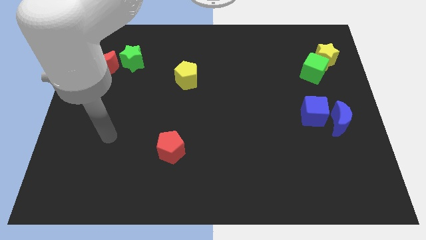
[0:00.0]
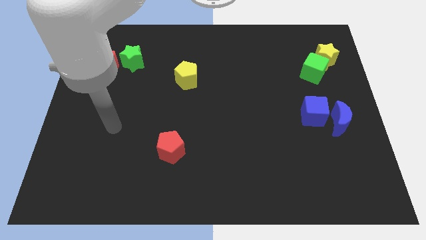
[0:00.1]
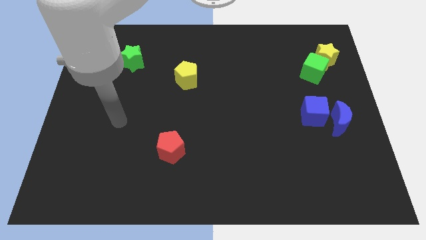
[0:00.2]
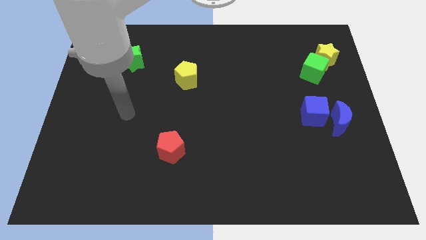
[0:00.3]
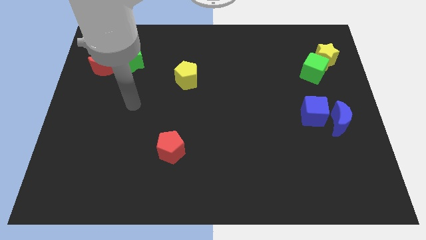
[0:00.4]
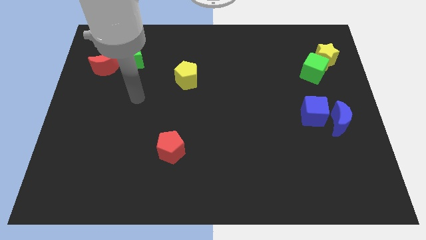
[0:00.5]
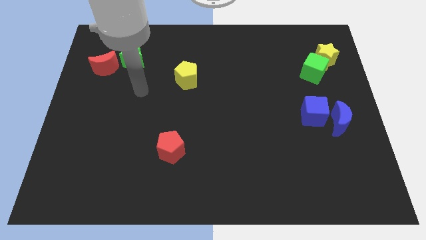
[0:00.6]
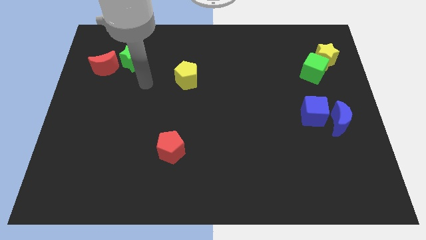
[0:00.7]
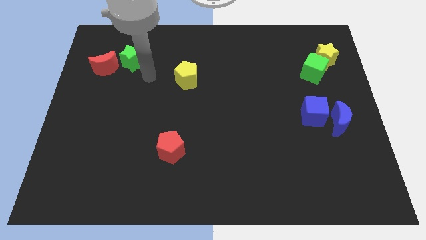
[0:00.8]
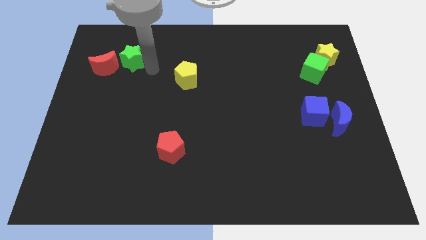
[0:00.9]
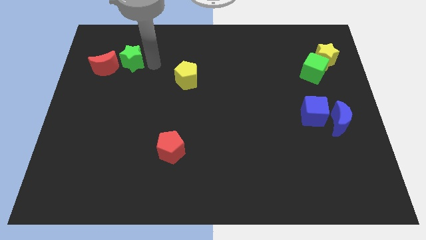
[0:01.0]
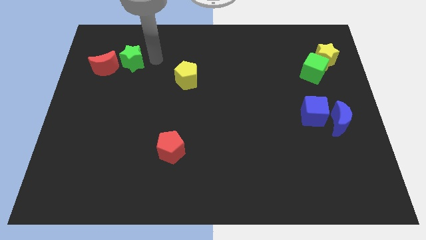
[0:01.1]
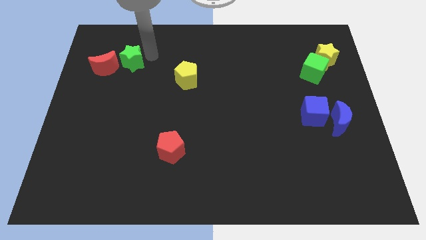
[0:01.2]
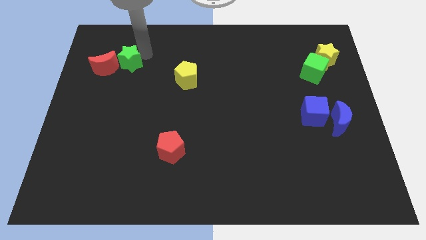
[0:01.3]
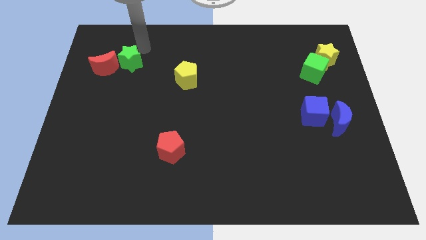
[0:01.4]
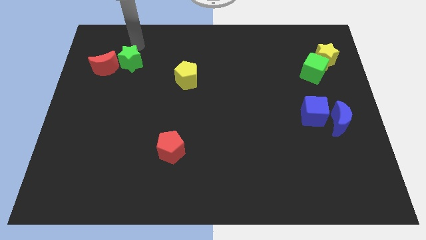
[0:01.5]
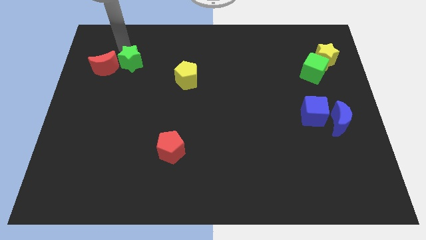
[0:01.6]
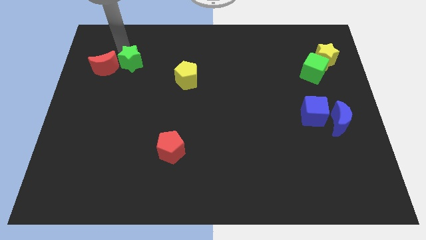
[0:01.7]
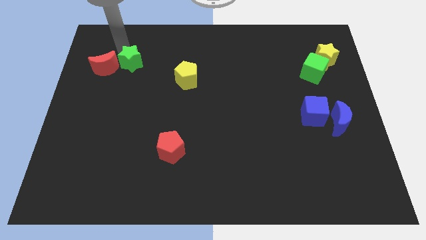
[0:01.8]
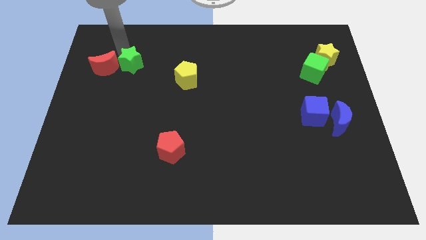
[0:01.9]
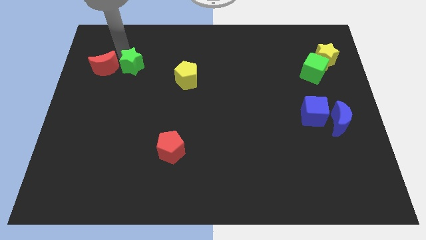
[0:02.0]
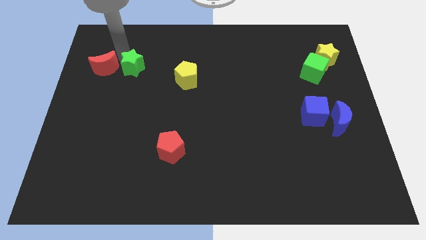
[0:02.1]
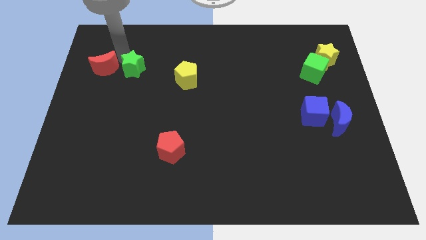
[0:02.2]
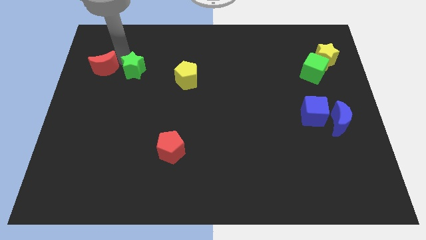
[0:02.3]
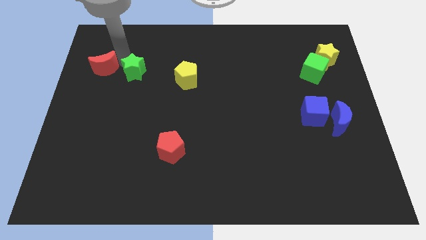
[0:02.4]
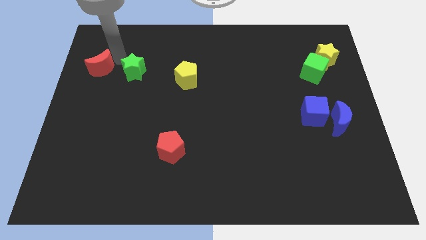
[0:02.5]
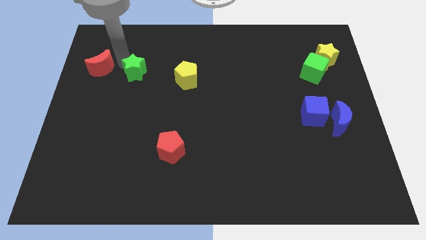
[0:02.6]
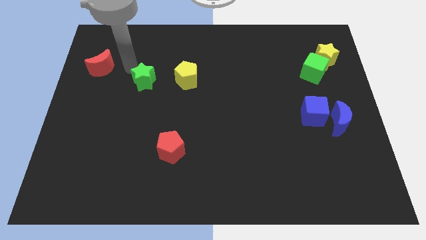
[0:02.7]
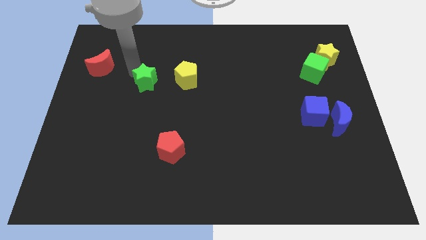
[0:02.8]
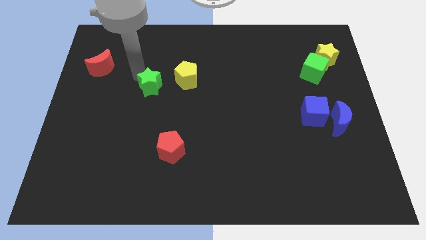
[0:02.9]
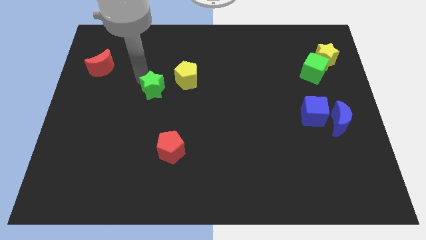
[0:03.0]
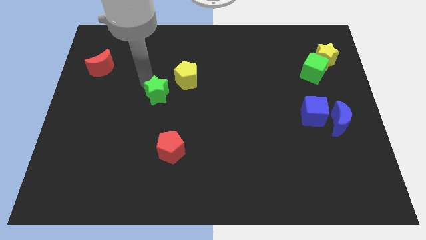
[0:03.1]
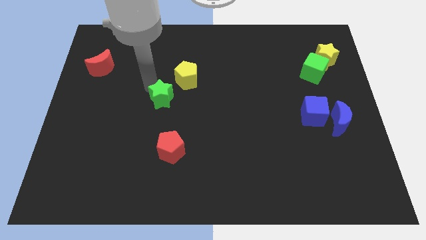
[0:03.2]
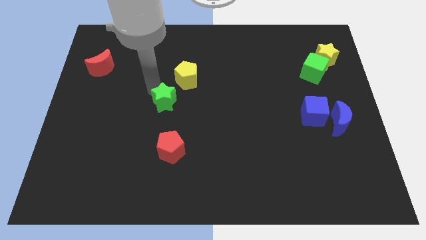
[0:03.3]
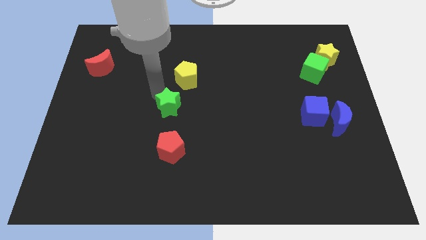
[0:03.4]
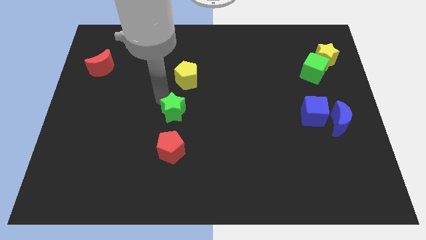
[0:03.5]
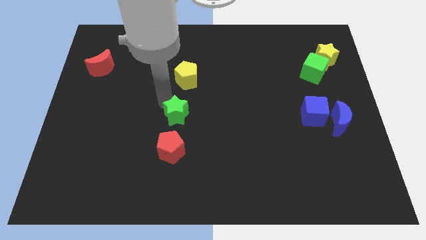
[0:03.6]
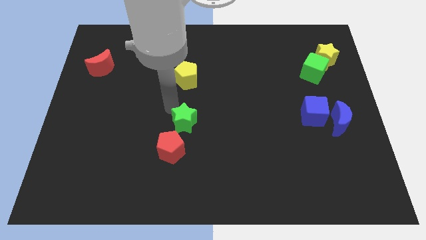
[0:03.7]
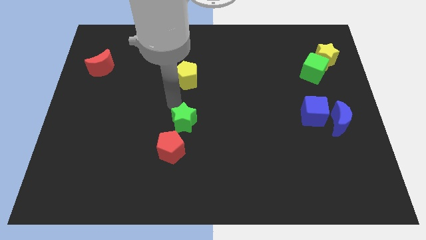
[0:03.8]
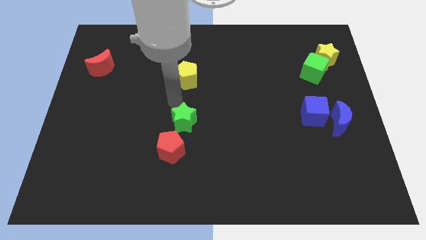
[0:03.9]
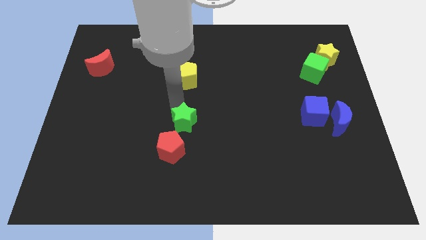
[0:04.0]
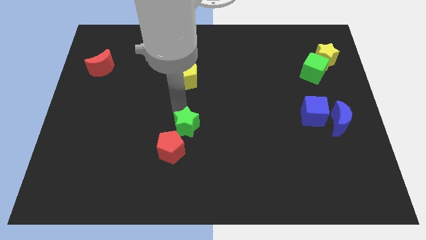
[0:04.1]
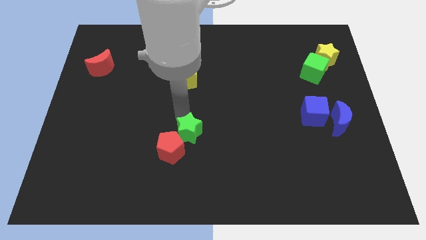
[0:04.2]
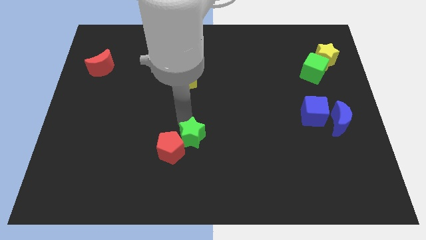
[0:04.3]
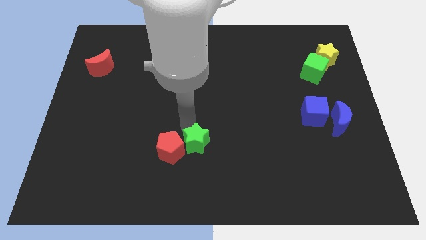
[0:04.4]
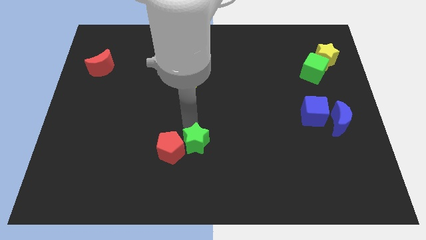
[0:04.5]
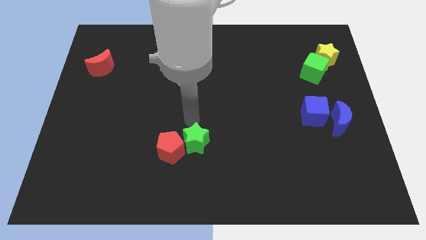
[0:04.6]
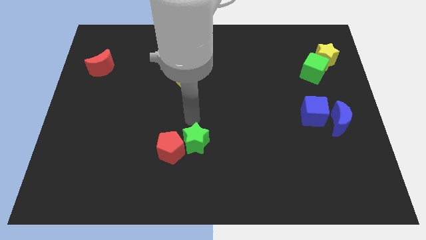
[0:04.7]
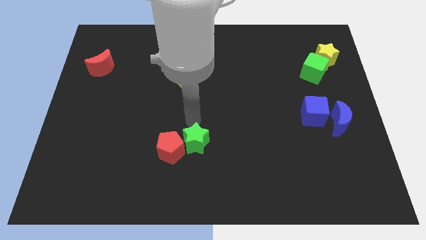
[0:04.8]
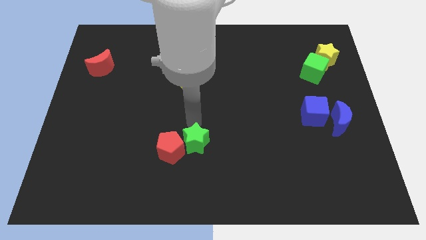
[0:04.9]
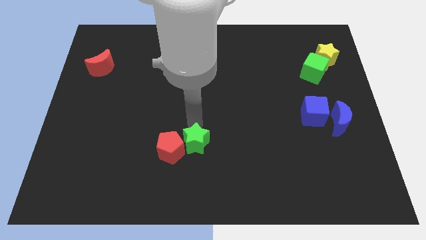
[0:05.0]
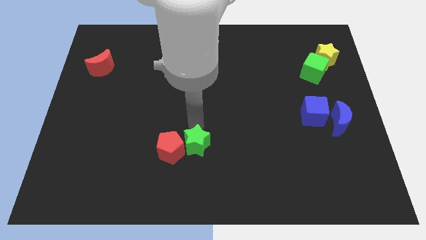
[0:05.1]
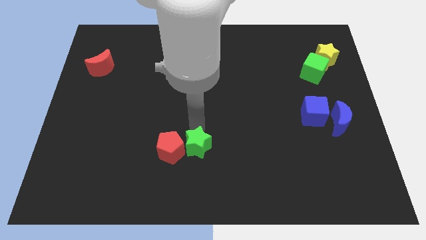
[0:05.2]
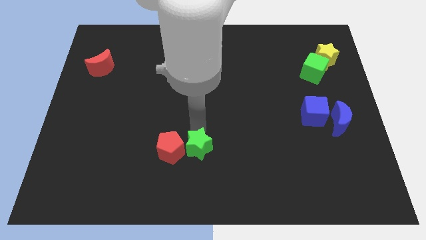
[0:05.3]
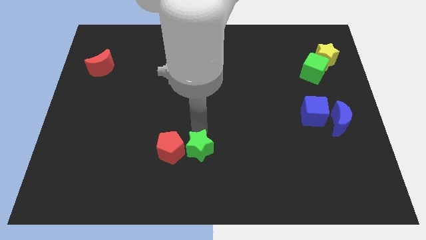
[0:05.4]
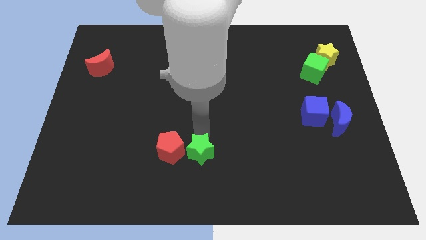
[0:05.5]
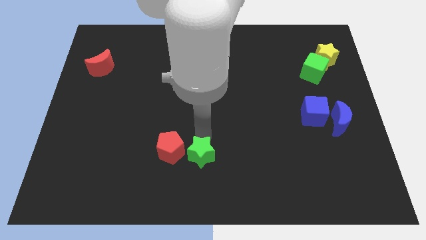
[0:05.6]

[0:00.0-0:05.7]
put the green star to the bottom side

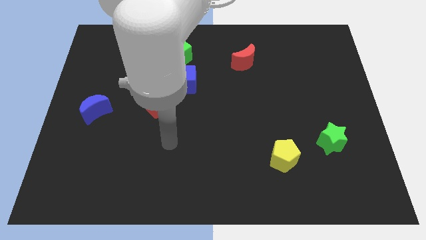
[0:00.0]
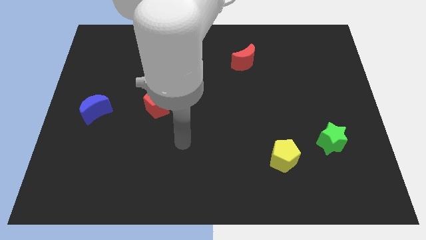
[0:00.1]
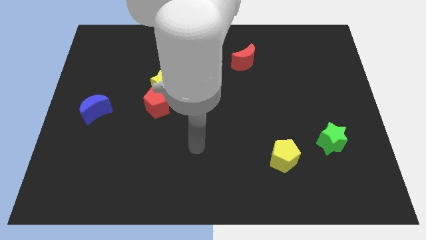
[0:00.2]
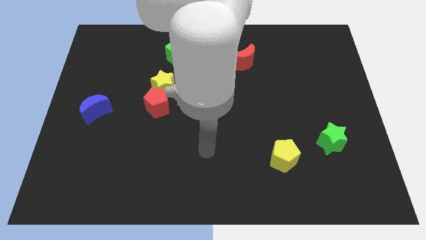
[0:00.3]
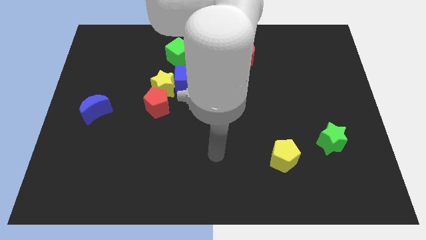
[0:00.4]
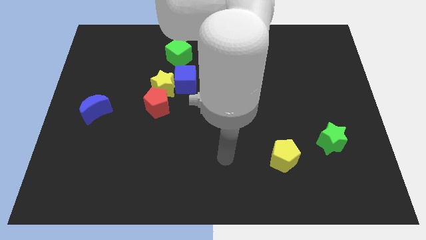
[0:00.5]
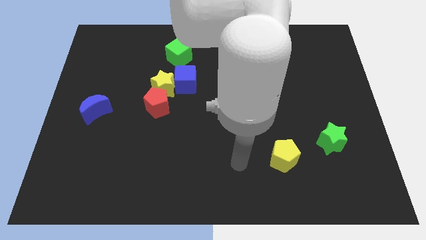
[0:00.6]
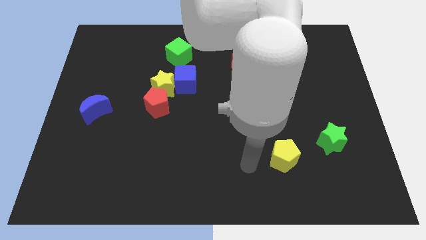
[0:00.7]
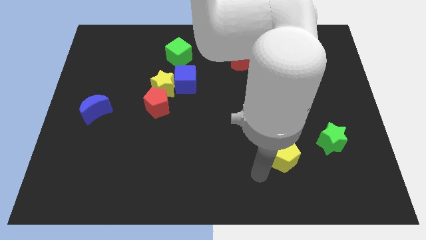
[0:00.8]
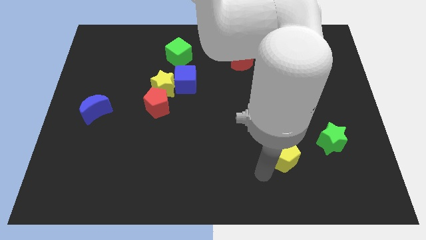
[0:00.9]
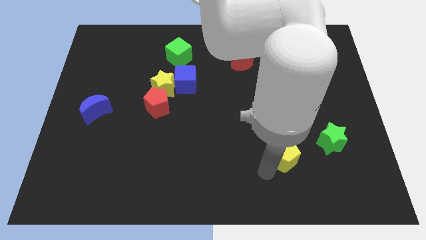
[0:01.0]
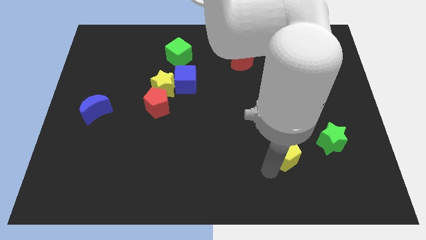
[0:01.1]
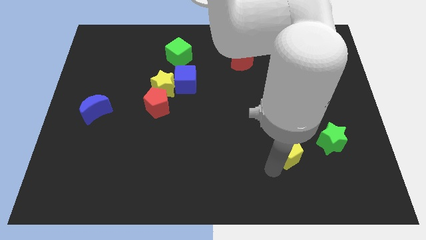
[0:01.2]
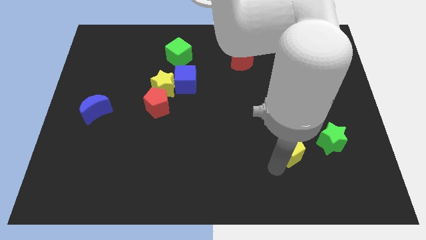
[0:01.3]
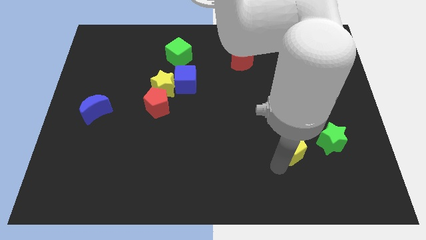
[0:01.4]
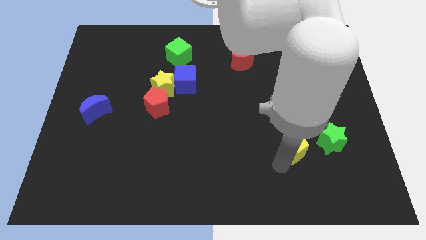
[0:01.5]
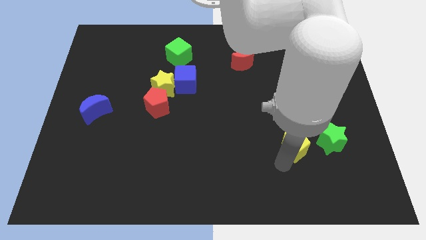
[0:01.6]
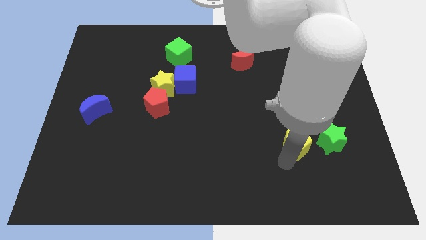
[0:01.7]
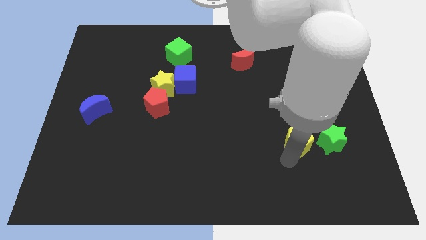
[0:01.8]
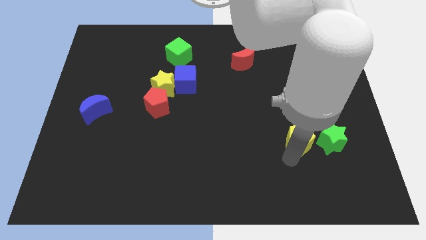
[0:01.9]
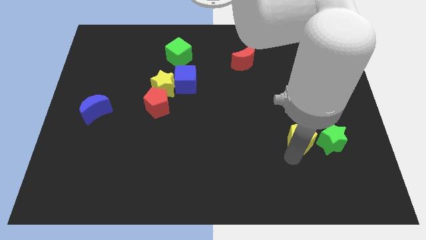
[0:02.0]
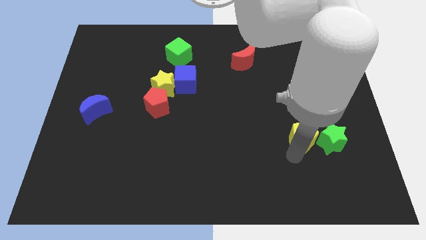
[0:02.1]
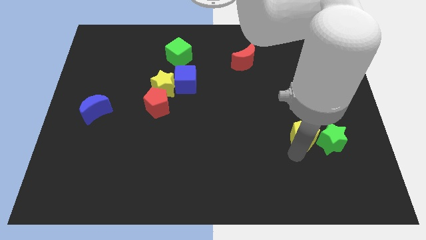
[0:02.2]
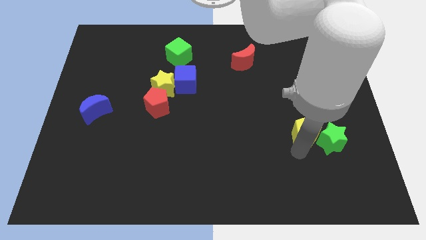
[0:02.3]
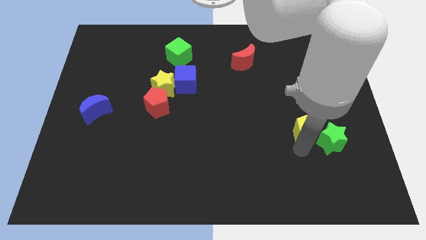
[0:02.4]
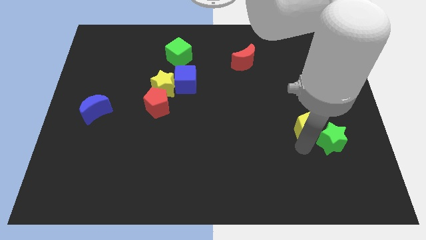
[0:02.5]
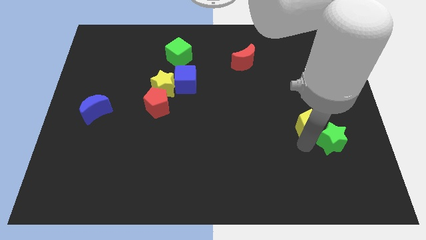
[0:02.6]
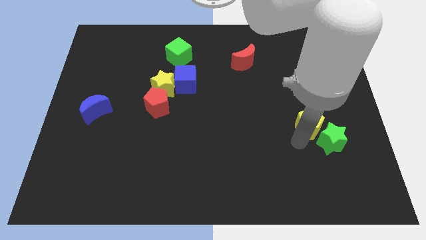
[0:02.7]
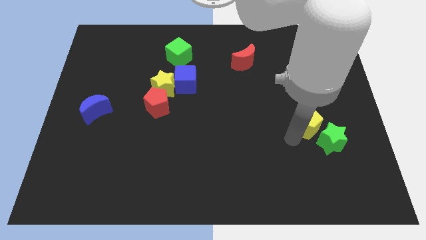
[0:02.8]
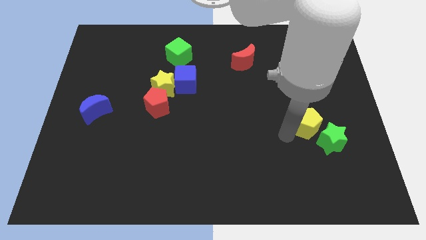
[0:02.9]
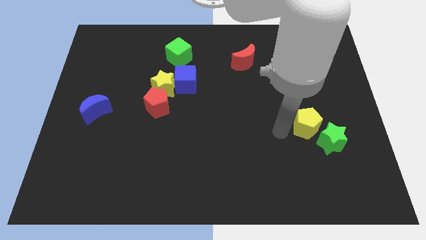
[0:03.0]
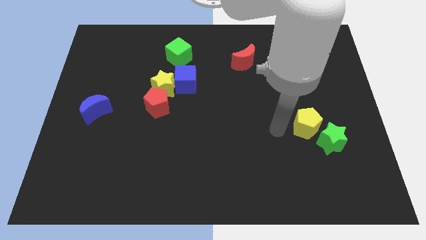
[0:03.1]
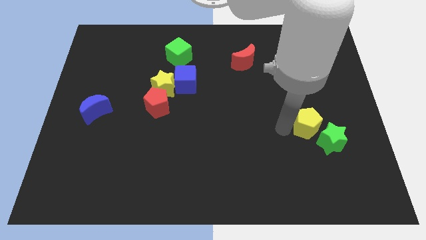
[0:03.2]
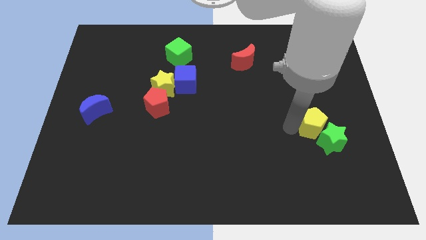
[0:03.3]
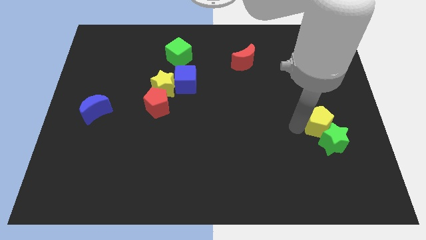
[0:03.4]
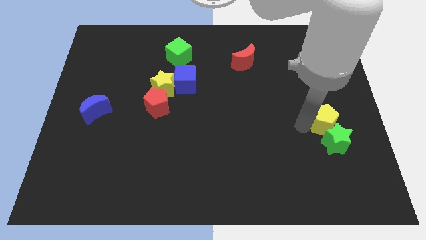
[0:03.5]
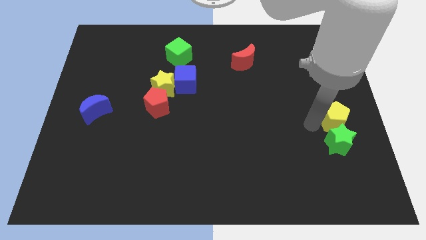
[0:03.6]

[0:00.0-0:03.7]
push the yellow pentagon to the right side of the board
